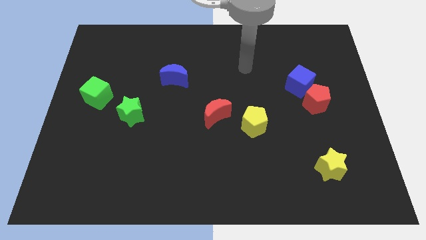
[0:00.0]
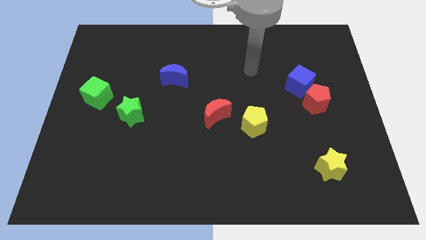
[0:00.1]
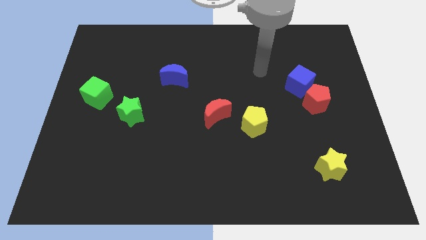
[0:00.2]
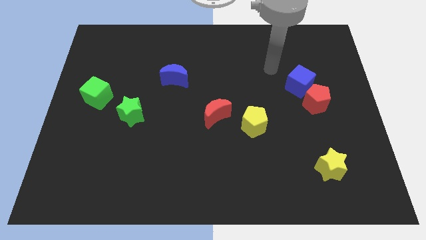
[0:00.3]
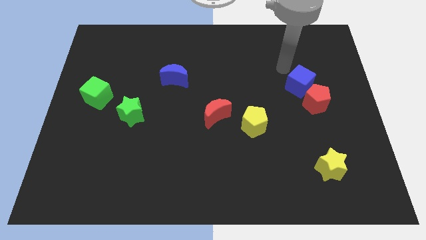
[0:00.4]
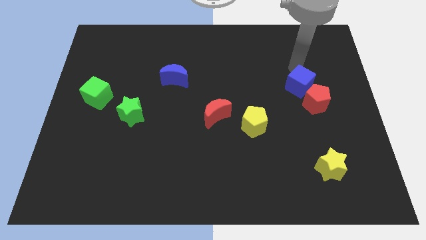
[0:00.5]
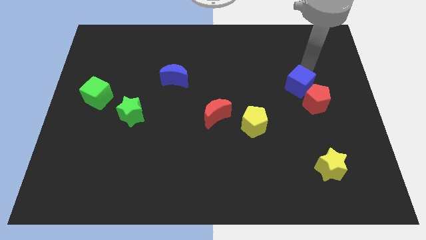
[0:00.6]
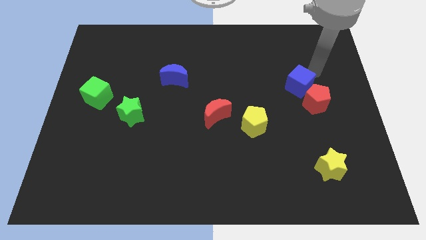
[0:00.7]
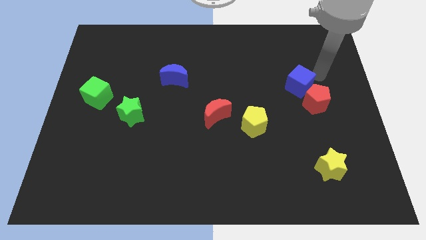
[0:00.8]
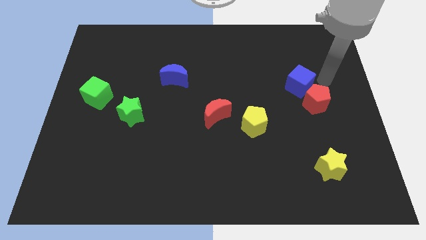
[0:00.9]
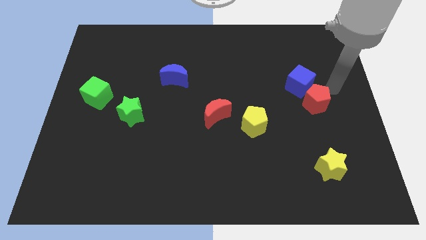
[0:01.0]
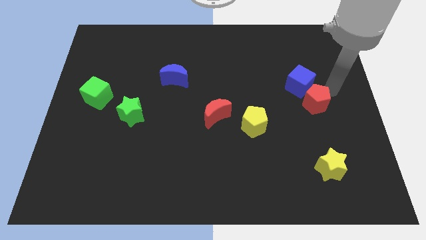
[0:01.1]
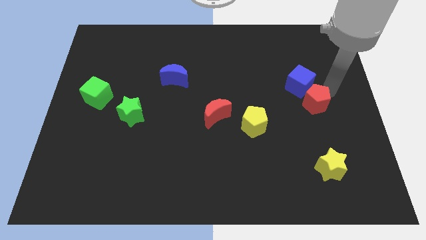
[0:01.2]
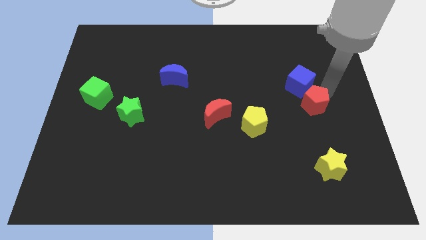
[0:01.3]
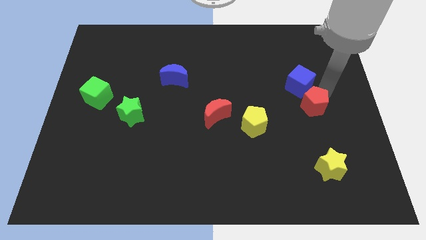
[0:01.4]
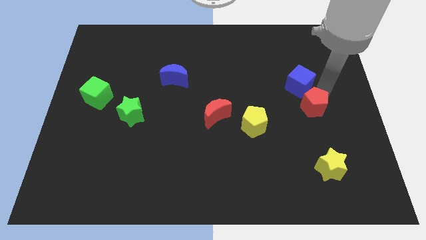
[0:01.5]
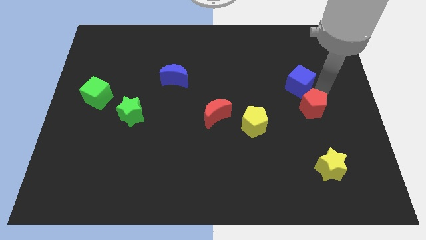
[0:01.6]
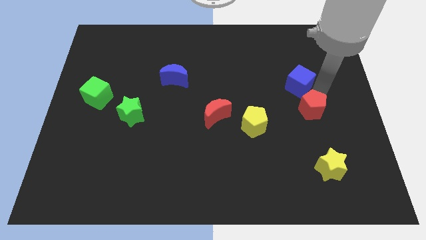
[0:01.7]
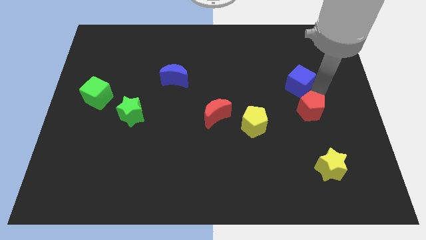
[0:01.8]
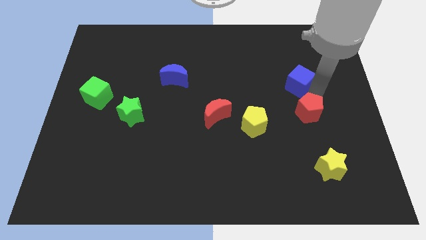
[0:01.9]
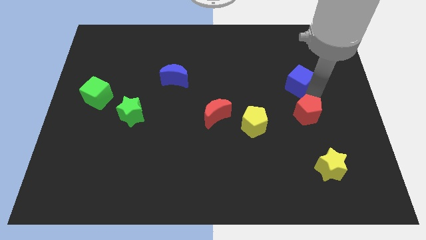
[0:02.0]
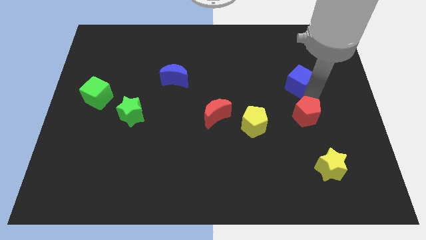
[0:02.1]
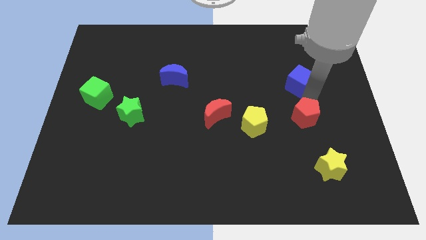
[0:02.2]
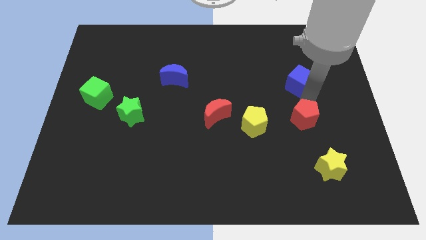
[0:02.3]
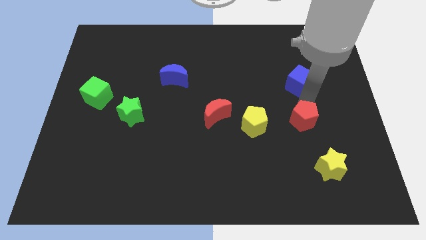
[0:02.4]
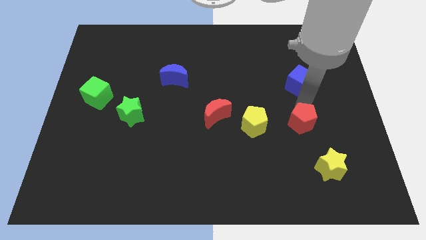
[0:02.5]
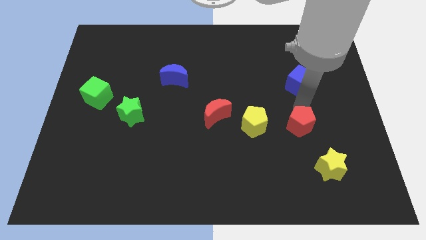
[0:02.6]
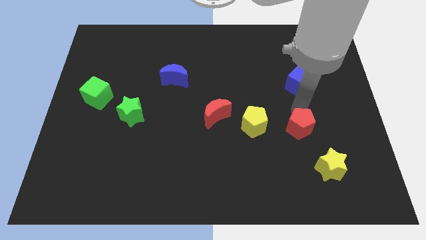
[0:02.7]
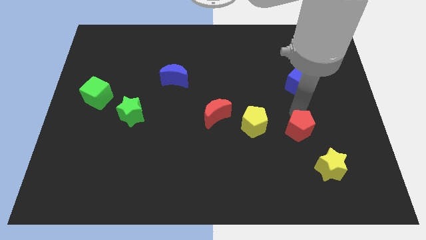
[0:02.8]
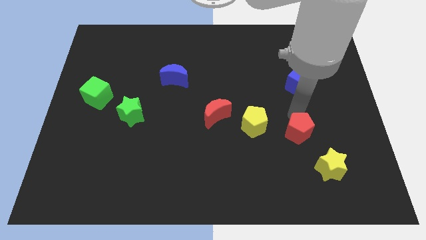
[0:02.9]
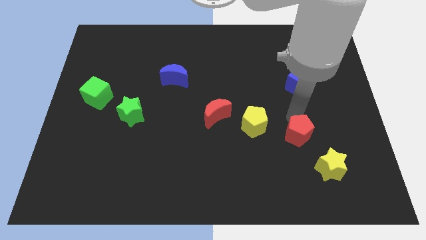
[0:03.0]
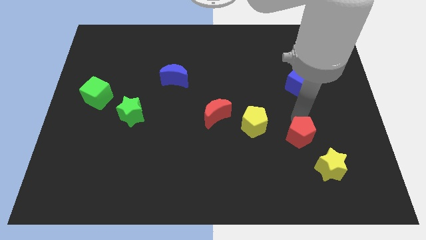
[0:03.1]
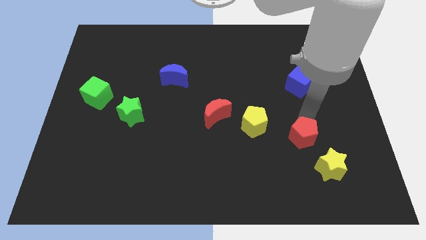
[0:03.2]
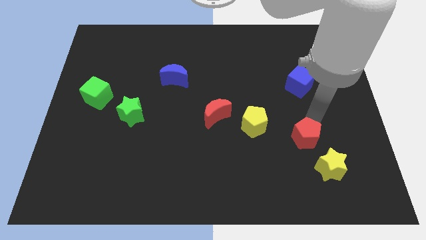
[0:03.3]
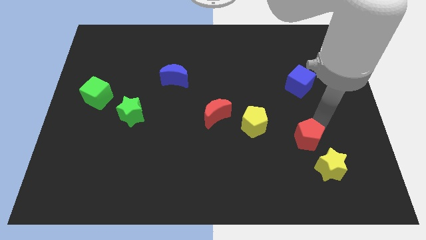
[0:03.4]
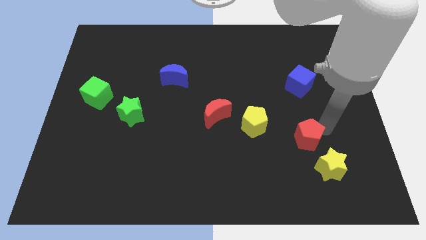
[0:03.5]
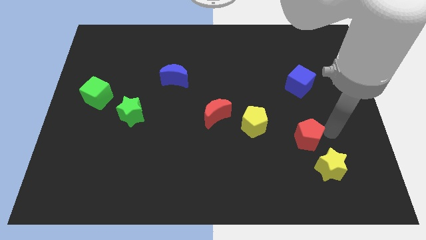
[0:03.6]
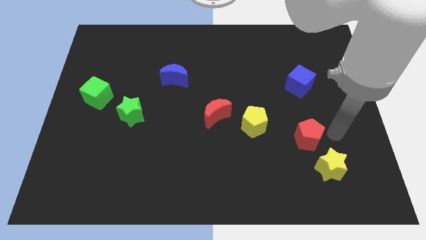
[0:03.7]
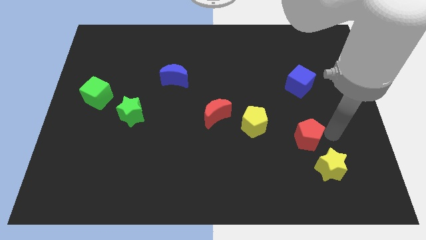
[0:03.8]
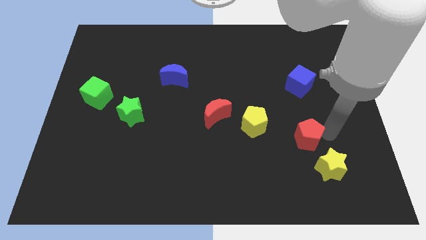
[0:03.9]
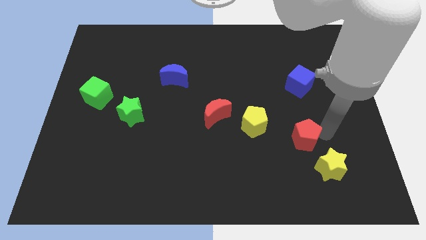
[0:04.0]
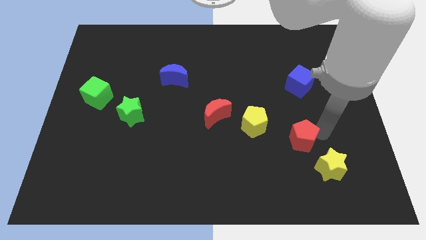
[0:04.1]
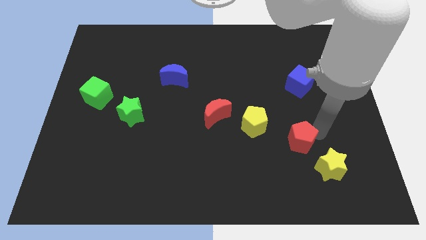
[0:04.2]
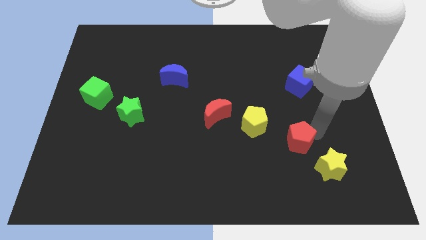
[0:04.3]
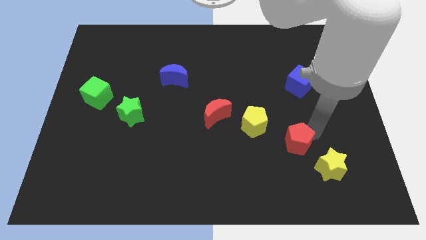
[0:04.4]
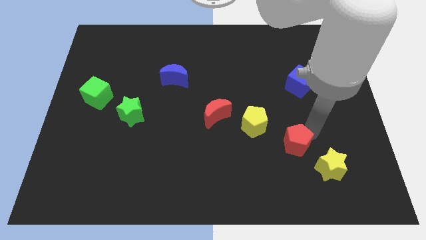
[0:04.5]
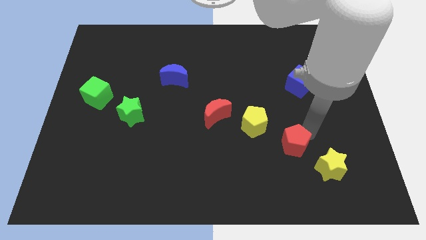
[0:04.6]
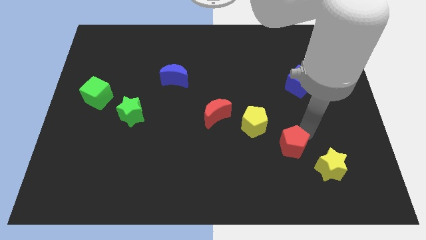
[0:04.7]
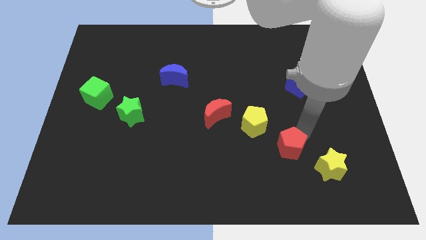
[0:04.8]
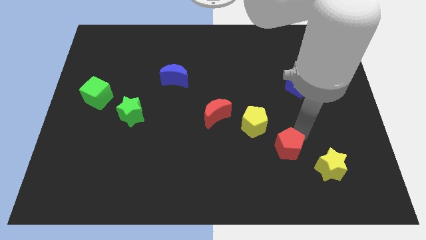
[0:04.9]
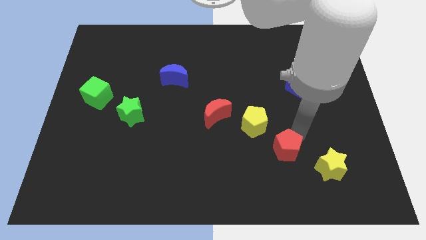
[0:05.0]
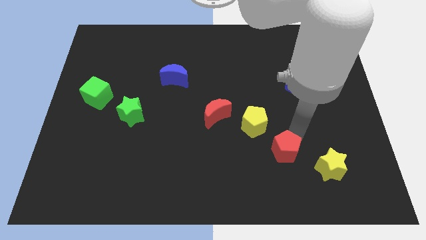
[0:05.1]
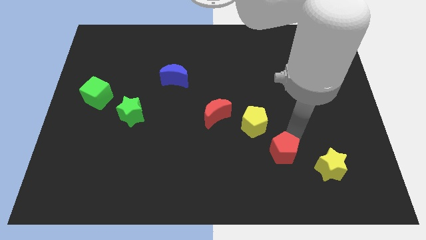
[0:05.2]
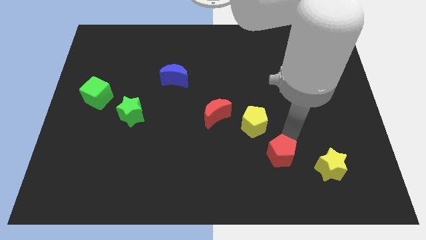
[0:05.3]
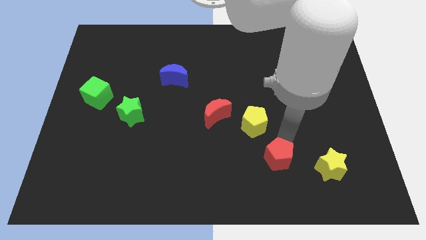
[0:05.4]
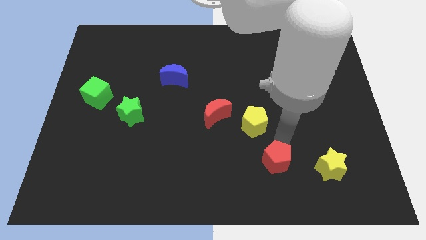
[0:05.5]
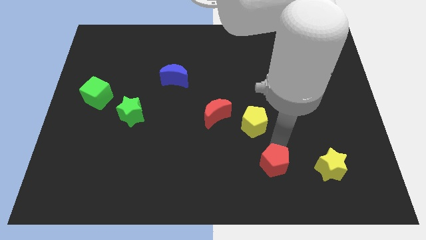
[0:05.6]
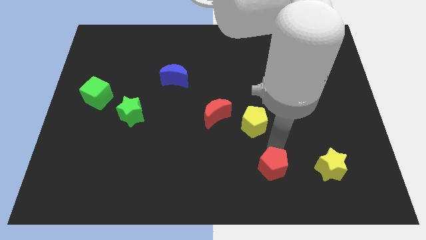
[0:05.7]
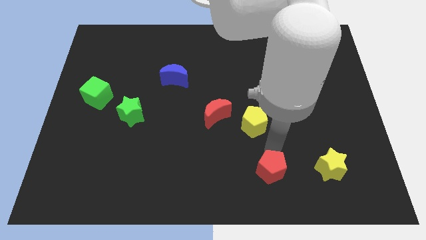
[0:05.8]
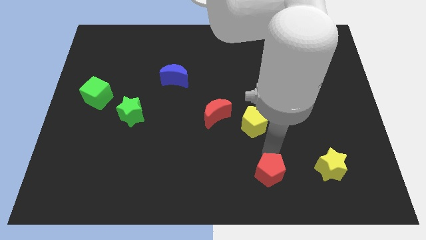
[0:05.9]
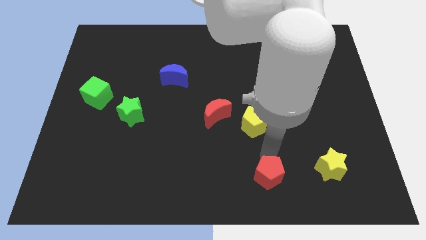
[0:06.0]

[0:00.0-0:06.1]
move the red pentagon to the bottom
